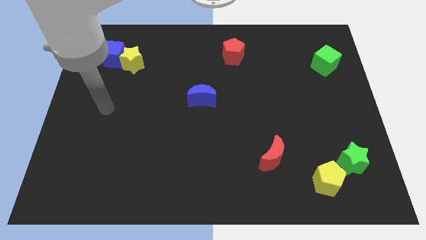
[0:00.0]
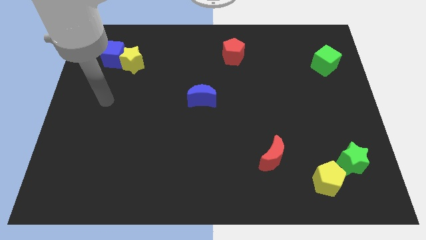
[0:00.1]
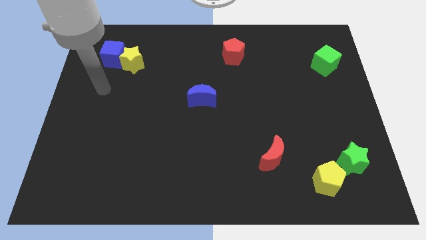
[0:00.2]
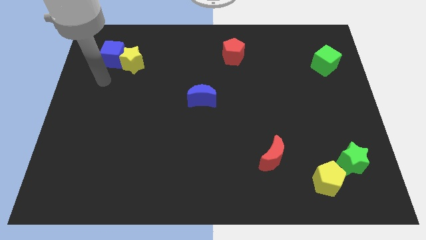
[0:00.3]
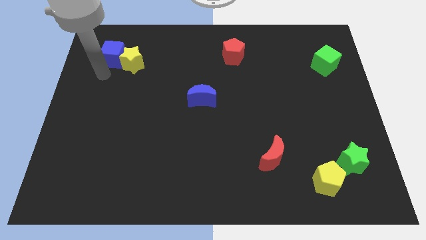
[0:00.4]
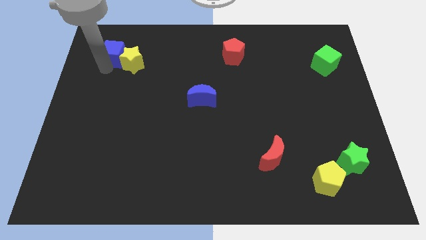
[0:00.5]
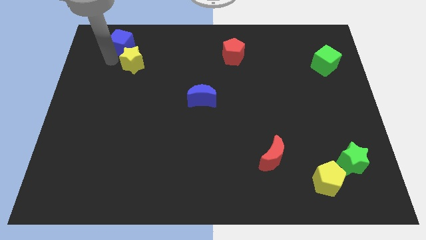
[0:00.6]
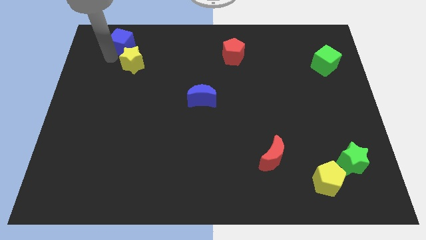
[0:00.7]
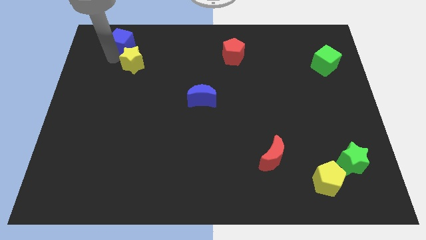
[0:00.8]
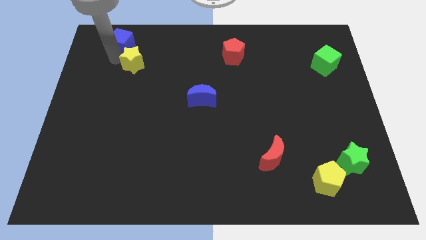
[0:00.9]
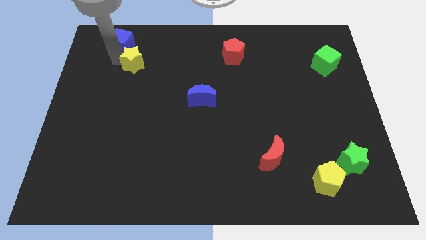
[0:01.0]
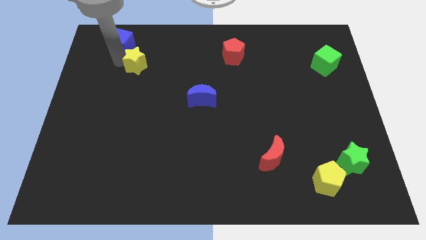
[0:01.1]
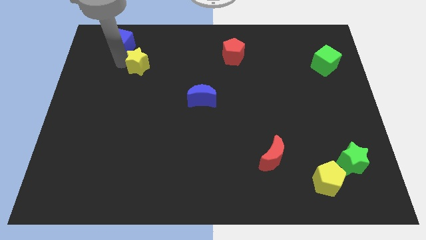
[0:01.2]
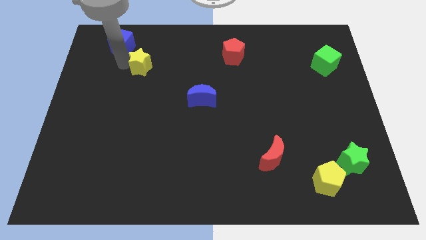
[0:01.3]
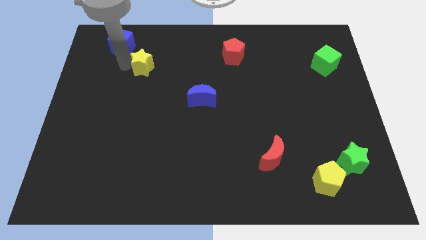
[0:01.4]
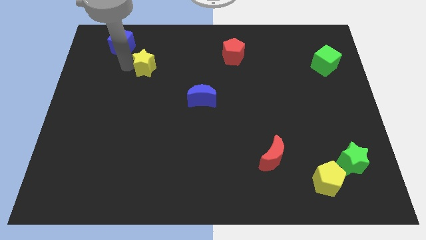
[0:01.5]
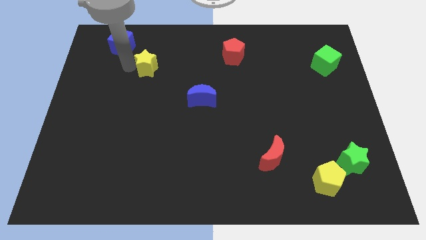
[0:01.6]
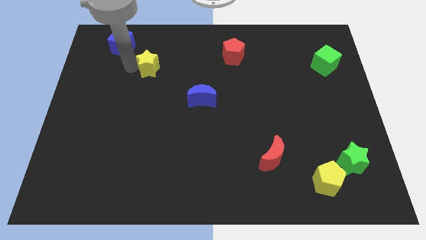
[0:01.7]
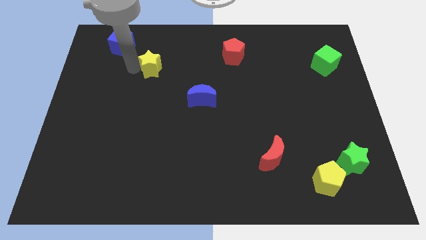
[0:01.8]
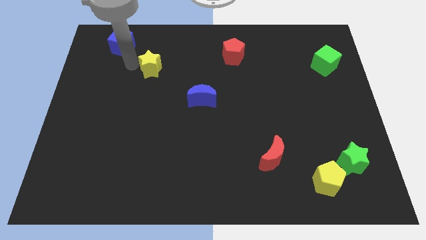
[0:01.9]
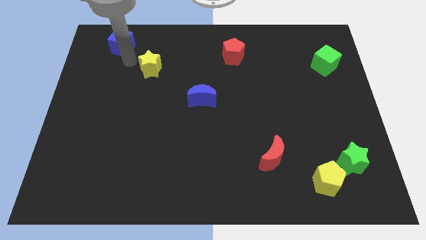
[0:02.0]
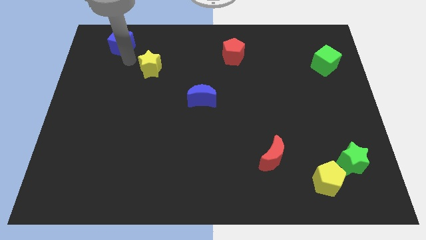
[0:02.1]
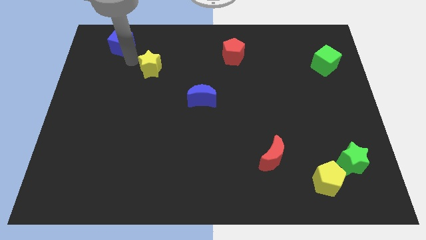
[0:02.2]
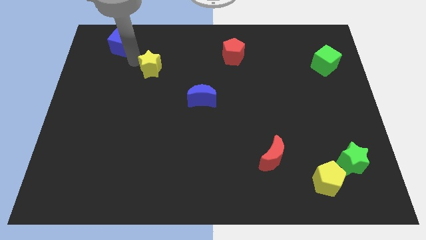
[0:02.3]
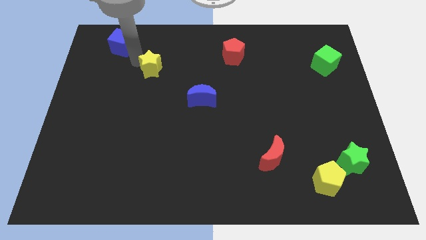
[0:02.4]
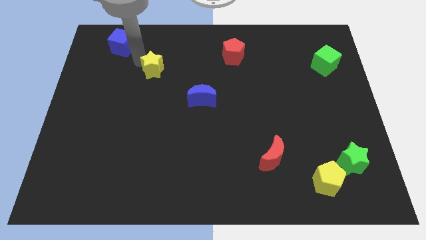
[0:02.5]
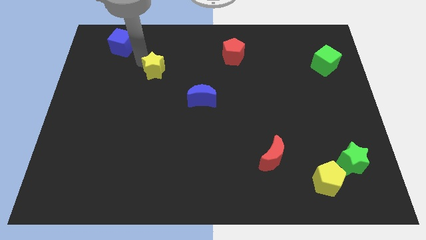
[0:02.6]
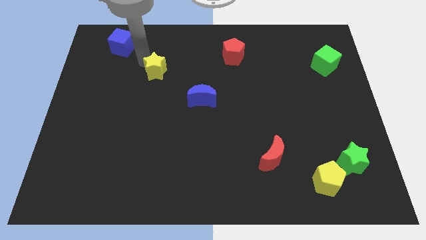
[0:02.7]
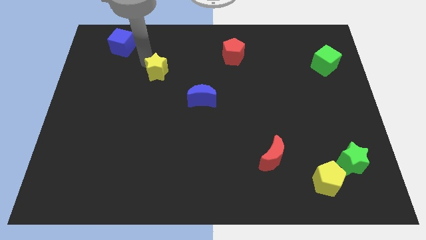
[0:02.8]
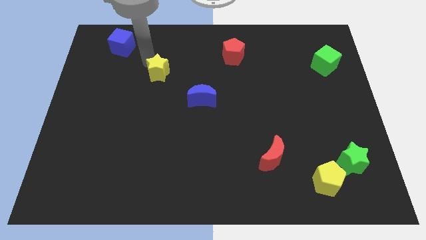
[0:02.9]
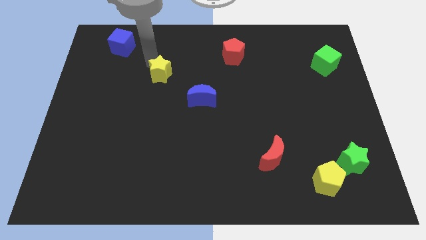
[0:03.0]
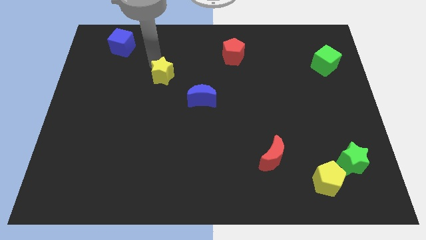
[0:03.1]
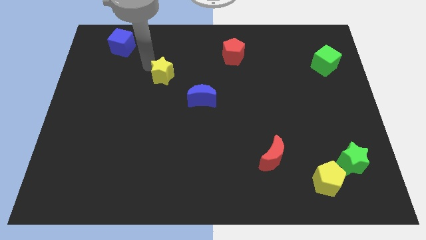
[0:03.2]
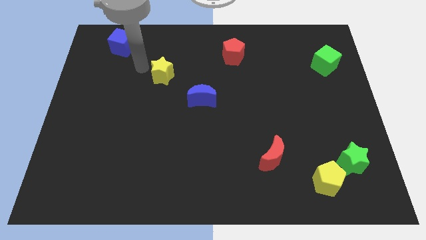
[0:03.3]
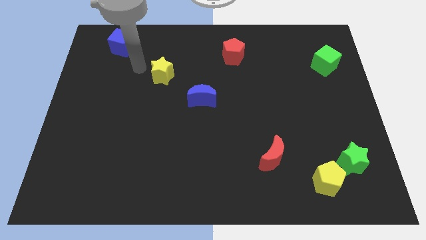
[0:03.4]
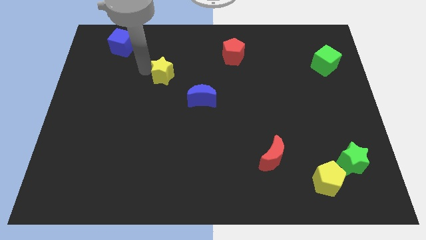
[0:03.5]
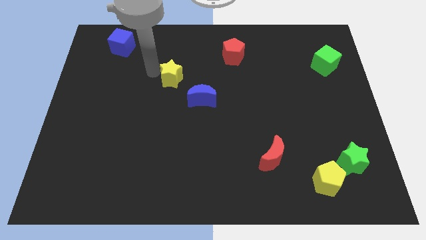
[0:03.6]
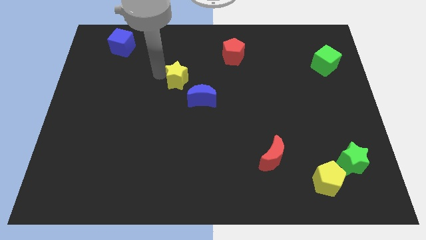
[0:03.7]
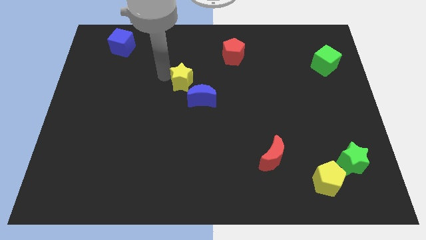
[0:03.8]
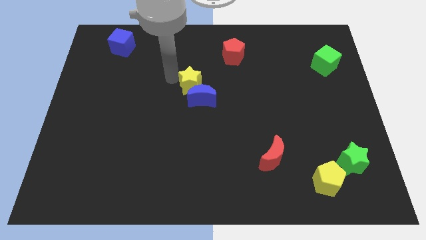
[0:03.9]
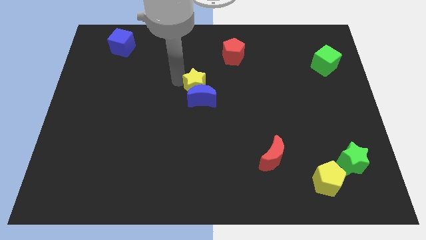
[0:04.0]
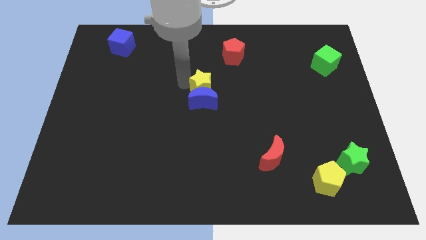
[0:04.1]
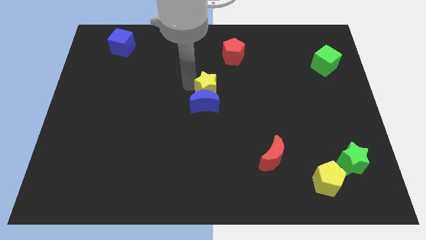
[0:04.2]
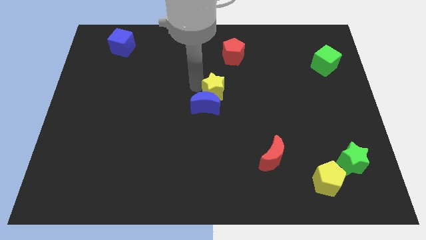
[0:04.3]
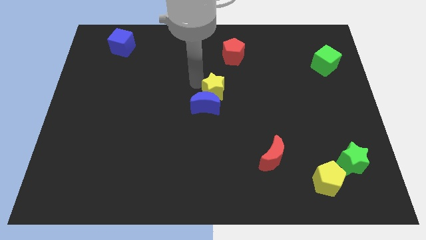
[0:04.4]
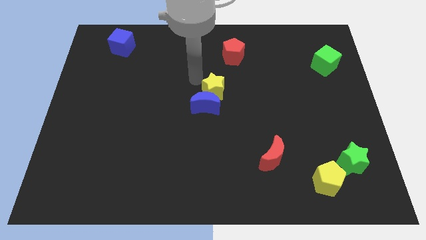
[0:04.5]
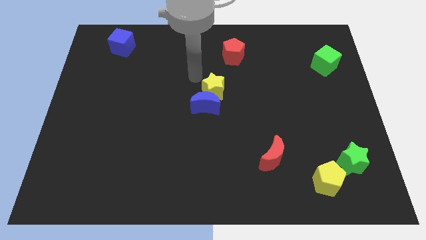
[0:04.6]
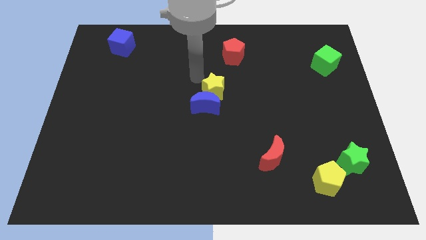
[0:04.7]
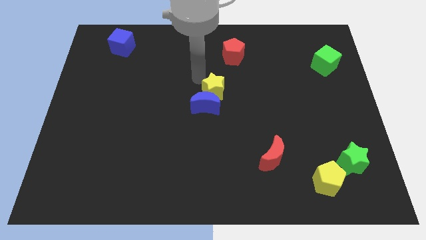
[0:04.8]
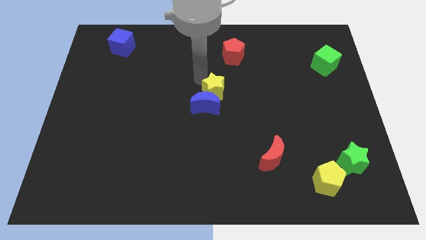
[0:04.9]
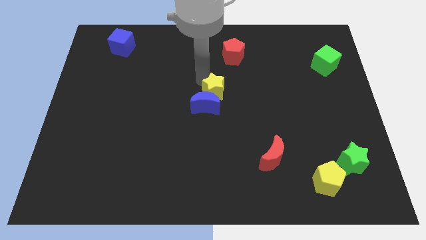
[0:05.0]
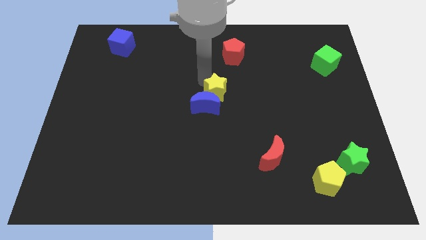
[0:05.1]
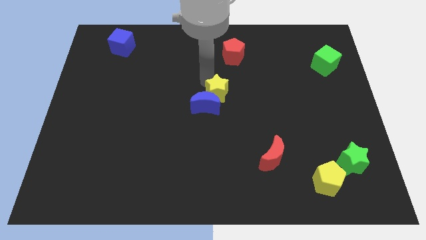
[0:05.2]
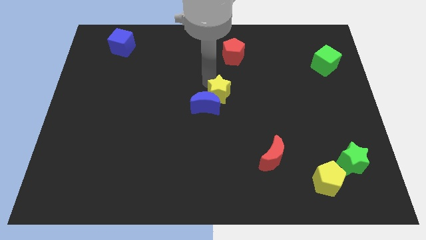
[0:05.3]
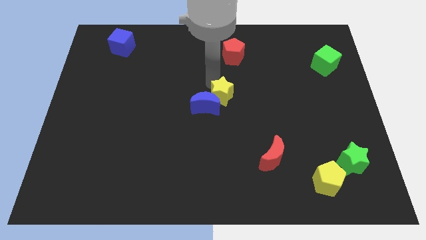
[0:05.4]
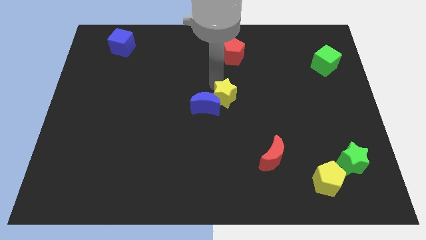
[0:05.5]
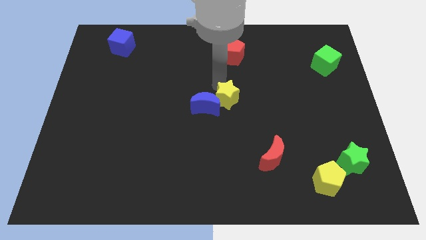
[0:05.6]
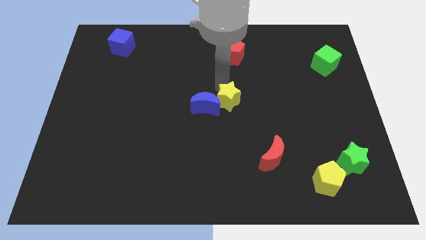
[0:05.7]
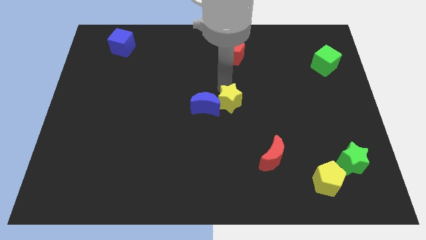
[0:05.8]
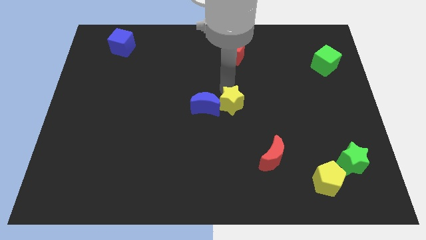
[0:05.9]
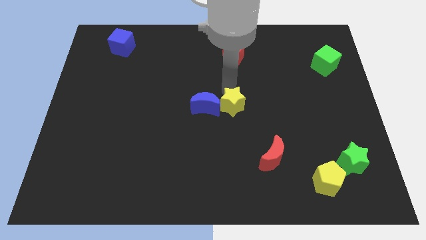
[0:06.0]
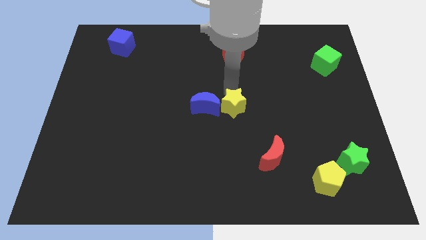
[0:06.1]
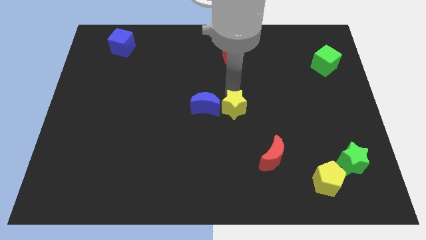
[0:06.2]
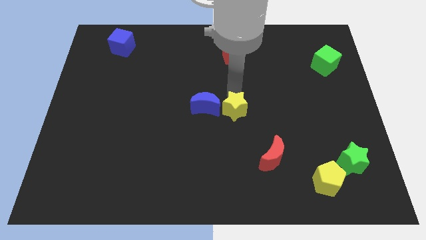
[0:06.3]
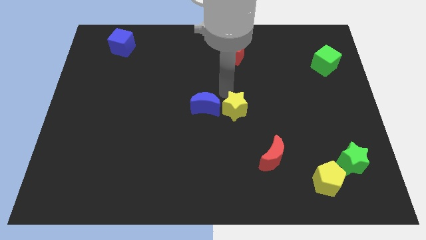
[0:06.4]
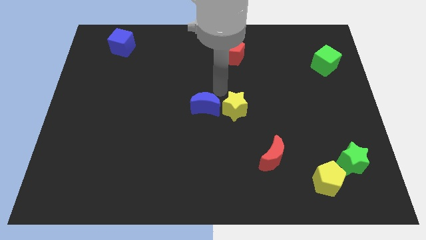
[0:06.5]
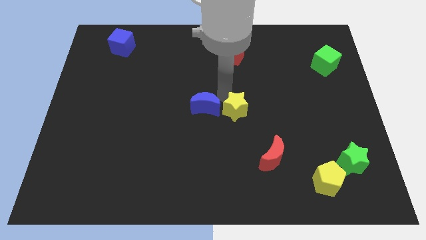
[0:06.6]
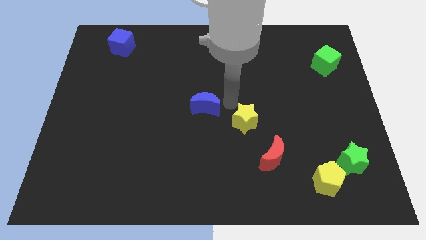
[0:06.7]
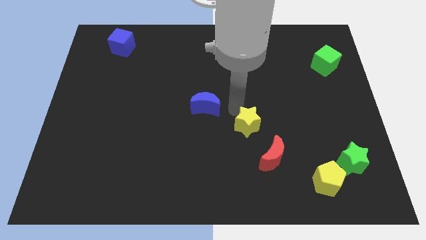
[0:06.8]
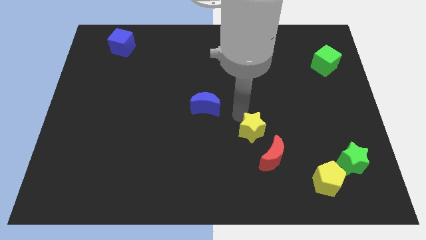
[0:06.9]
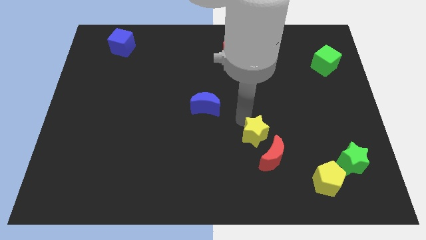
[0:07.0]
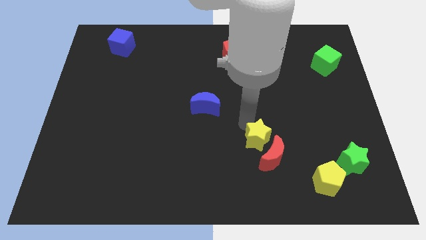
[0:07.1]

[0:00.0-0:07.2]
push the yellow star next to the red moon

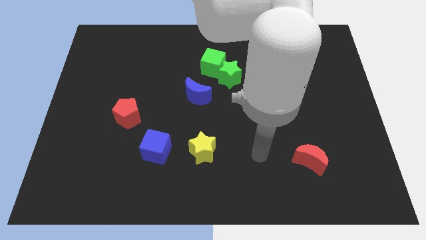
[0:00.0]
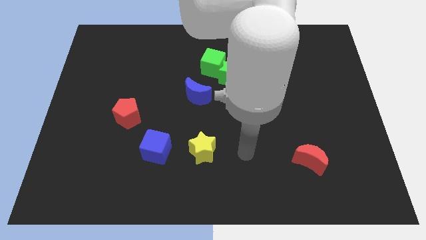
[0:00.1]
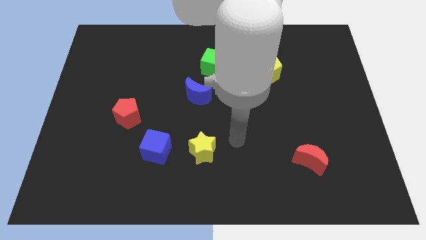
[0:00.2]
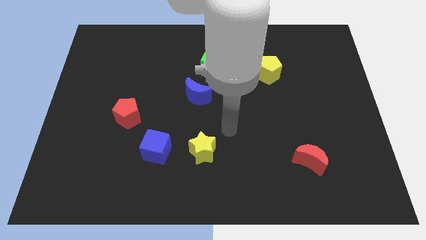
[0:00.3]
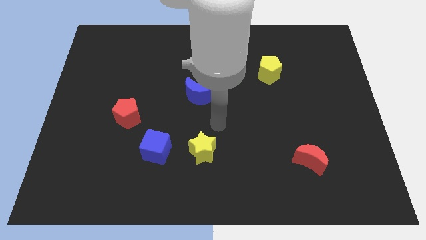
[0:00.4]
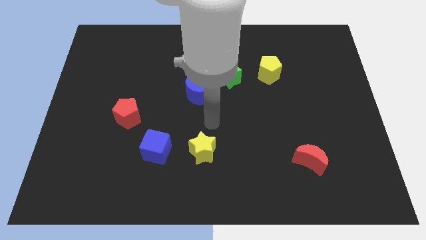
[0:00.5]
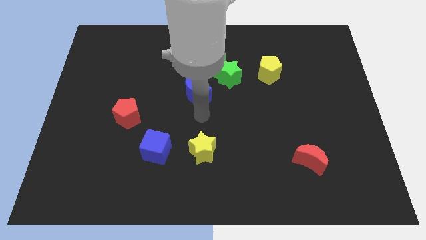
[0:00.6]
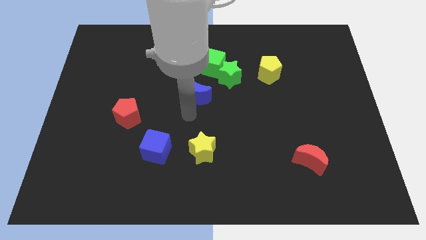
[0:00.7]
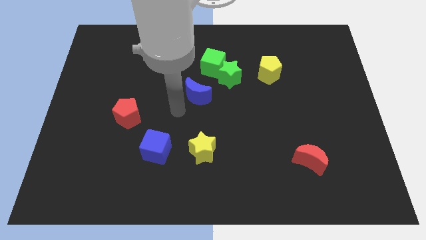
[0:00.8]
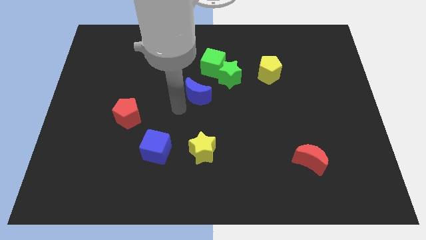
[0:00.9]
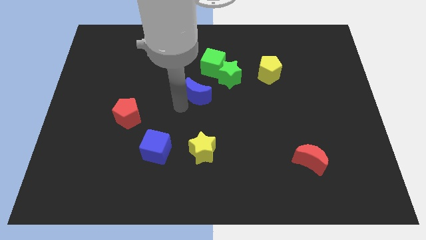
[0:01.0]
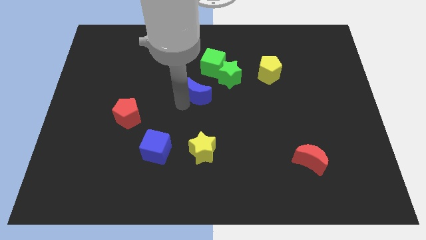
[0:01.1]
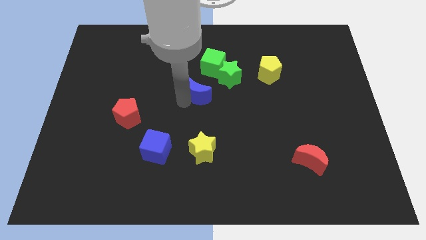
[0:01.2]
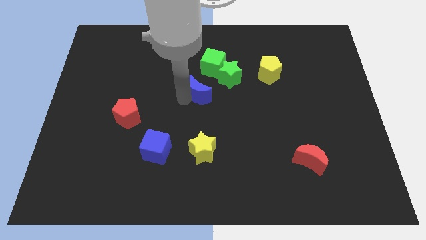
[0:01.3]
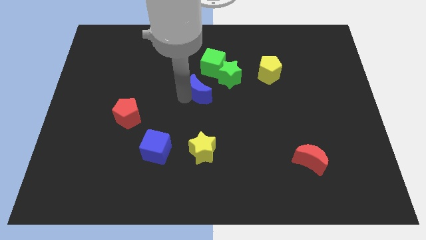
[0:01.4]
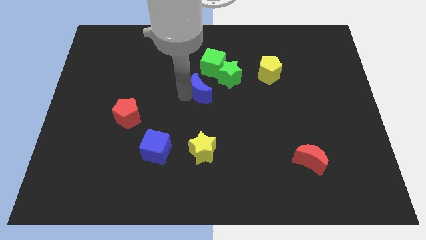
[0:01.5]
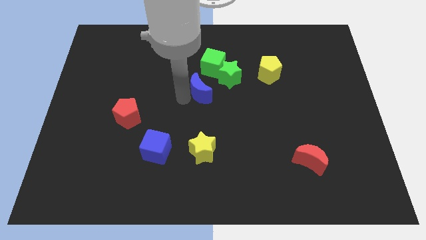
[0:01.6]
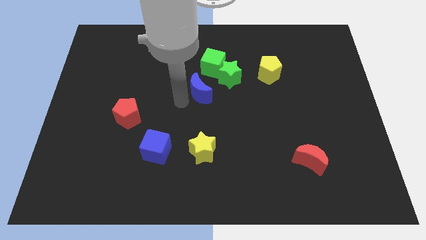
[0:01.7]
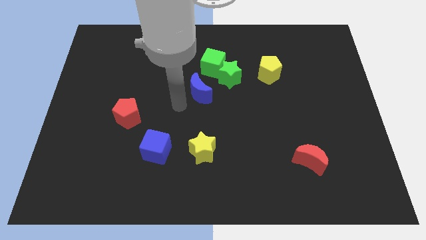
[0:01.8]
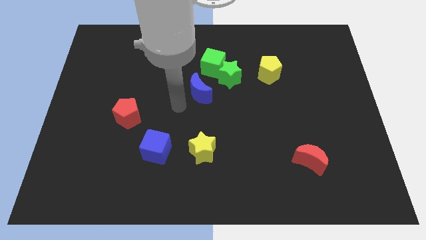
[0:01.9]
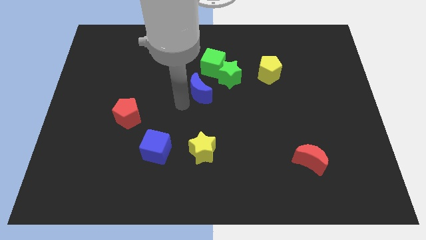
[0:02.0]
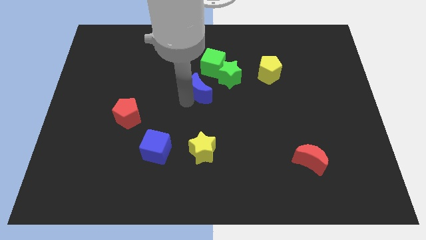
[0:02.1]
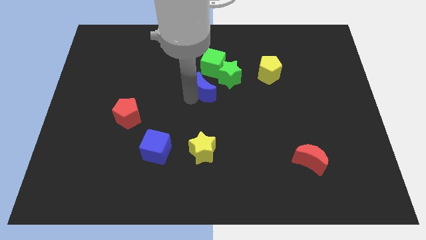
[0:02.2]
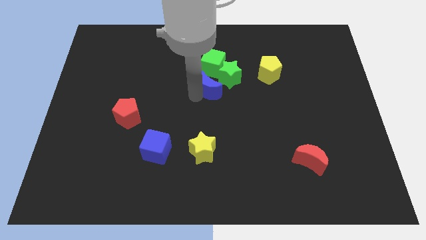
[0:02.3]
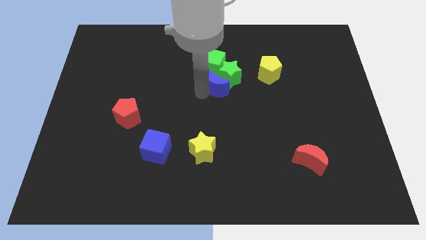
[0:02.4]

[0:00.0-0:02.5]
push the blue moon towards the green star
